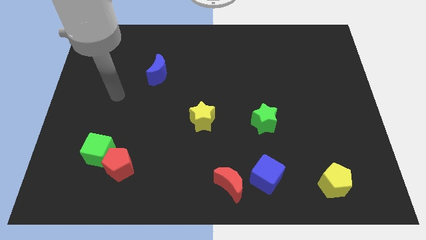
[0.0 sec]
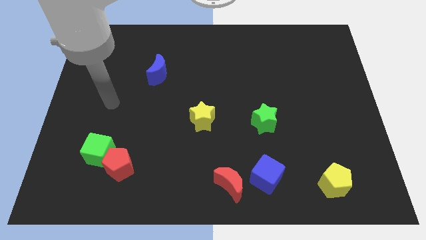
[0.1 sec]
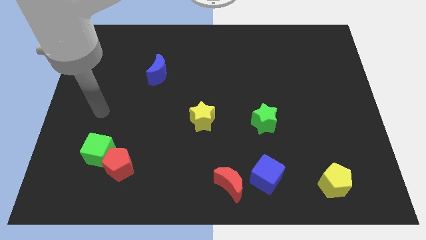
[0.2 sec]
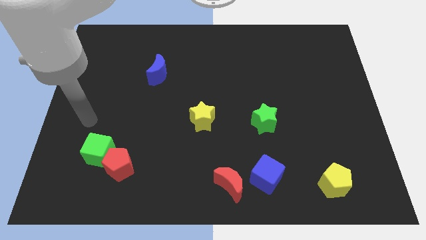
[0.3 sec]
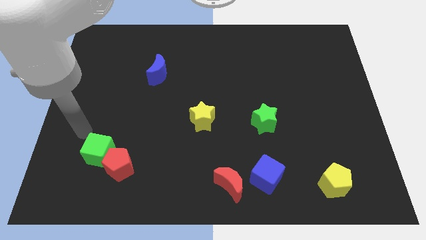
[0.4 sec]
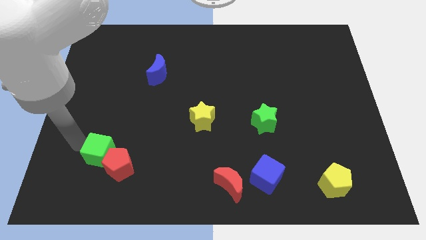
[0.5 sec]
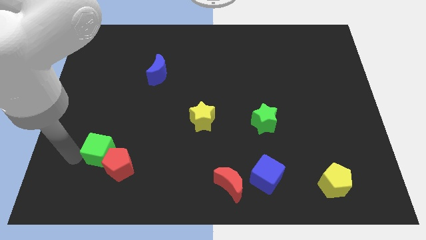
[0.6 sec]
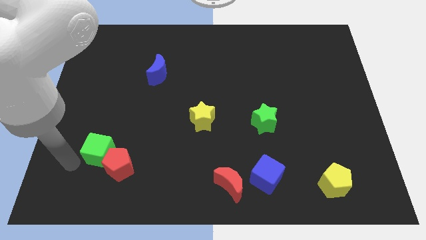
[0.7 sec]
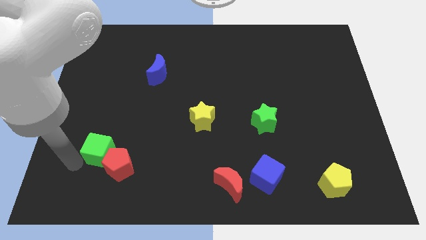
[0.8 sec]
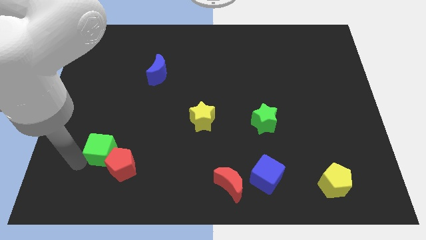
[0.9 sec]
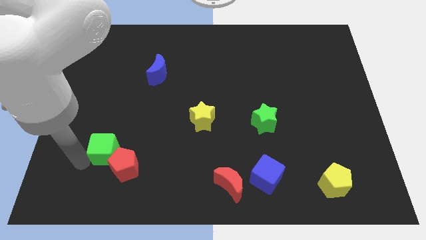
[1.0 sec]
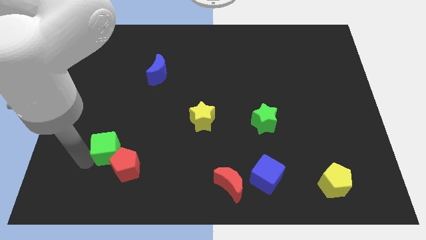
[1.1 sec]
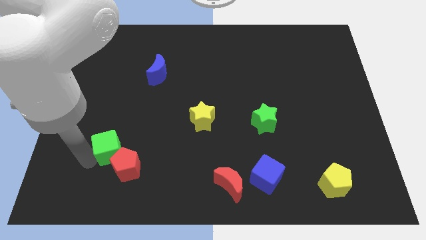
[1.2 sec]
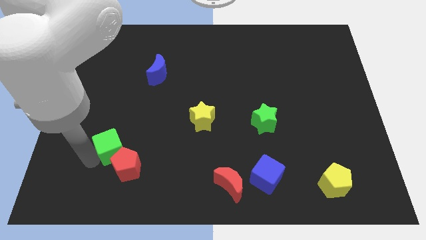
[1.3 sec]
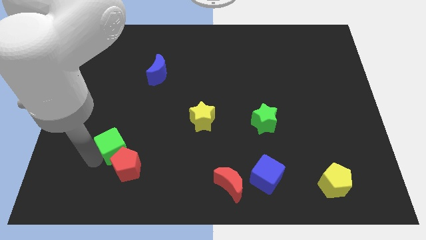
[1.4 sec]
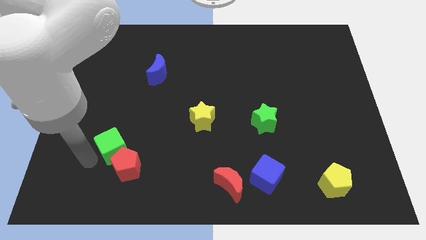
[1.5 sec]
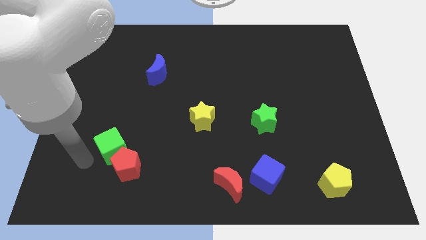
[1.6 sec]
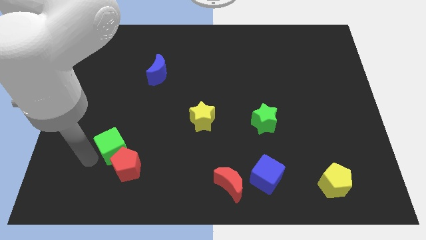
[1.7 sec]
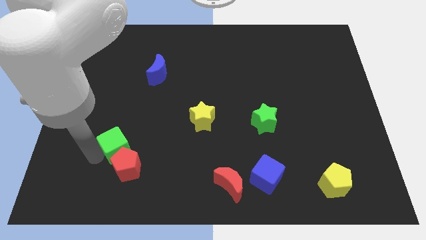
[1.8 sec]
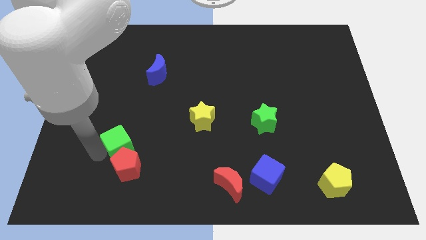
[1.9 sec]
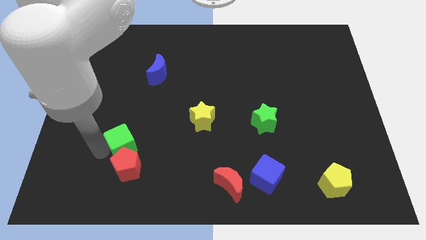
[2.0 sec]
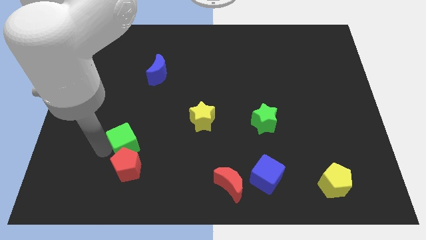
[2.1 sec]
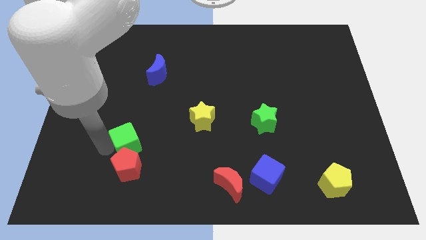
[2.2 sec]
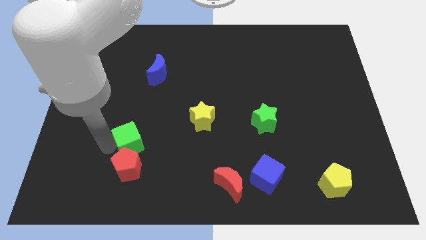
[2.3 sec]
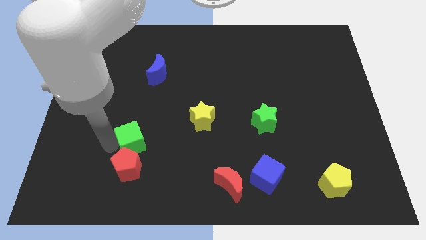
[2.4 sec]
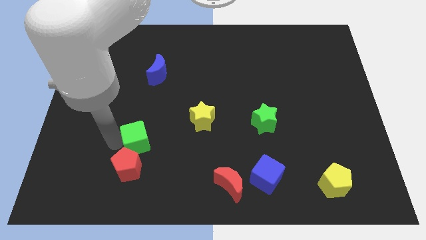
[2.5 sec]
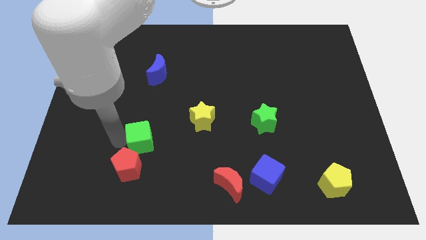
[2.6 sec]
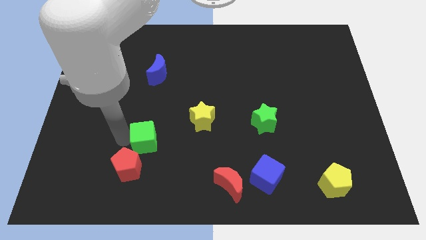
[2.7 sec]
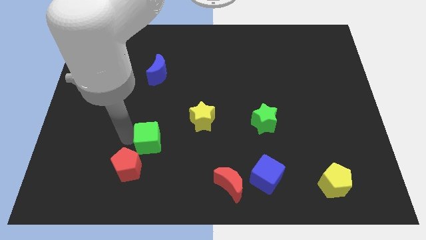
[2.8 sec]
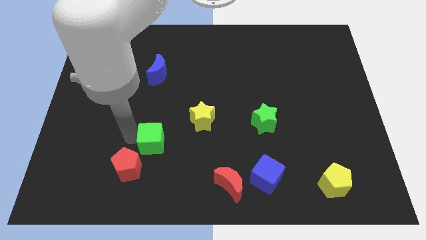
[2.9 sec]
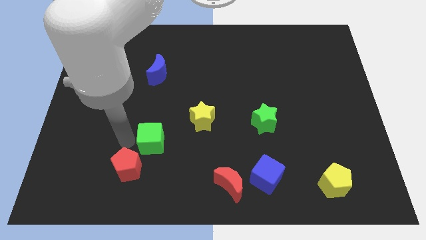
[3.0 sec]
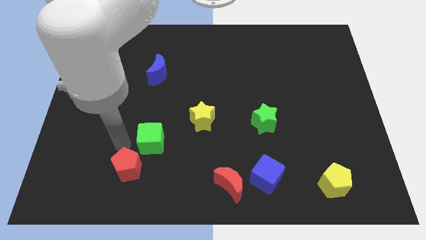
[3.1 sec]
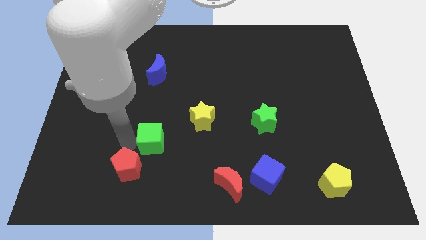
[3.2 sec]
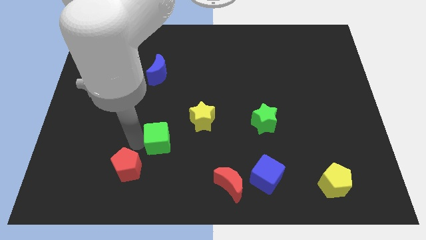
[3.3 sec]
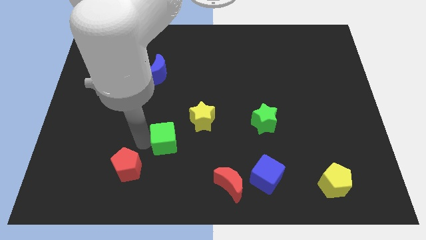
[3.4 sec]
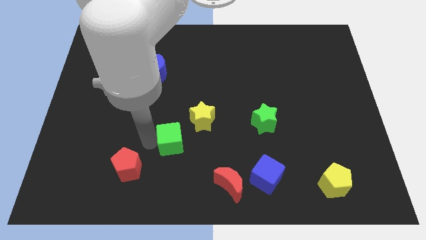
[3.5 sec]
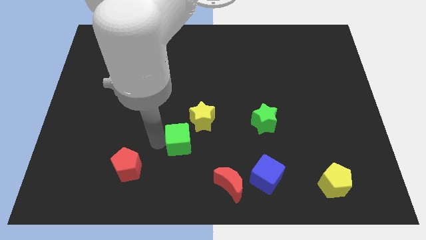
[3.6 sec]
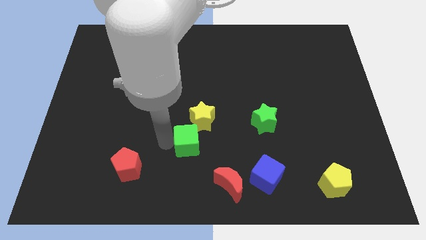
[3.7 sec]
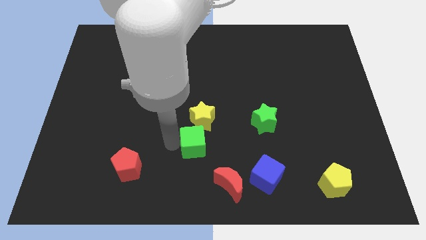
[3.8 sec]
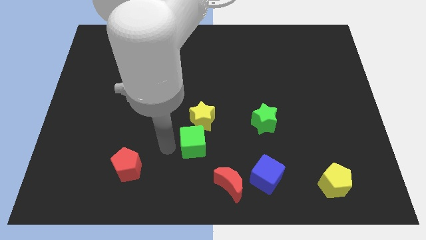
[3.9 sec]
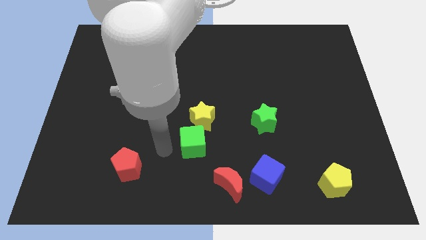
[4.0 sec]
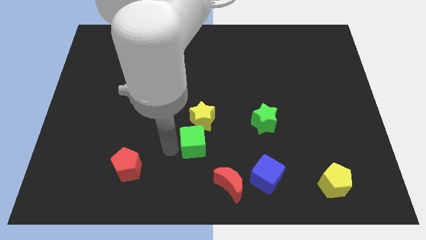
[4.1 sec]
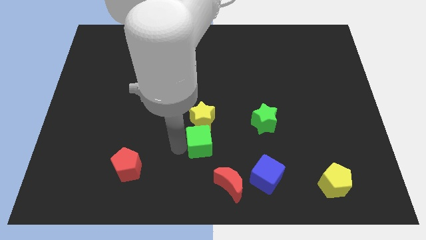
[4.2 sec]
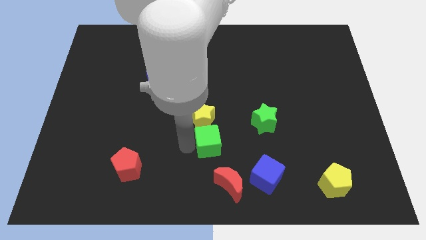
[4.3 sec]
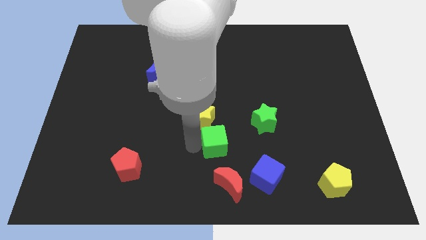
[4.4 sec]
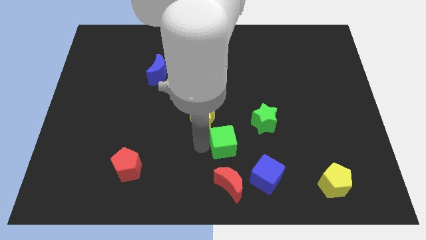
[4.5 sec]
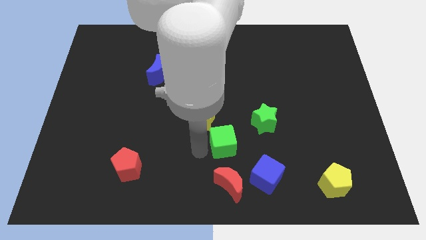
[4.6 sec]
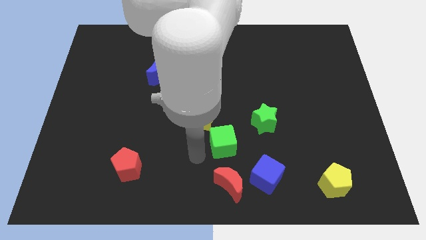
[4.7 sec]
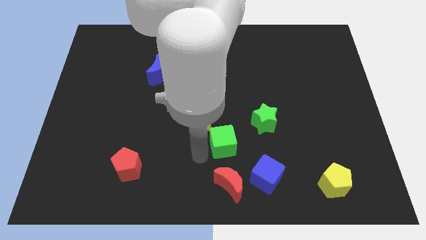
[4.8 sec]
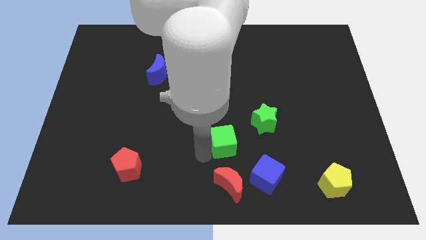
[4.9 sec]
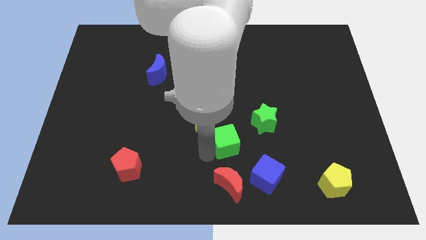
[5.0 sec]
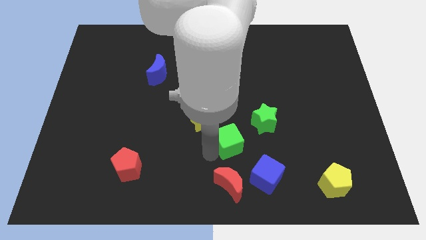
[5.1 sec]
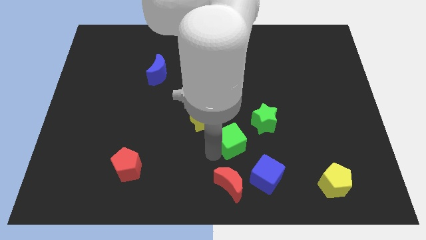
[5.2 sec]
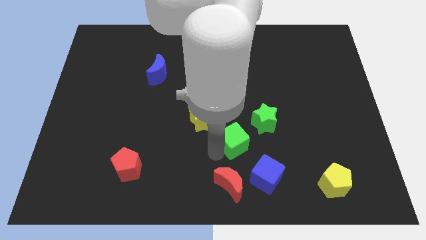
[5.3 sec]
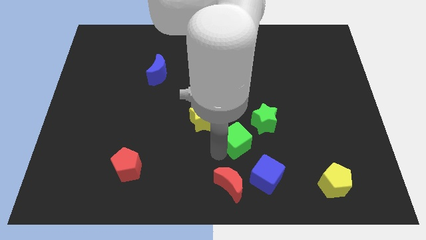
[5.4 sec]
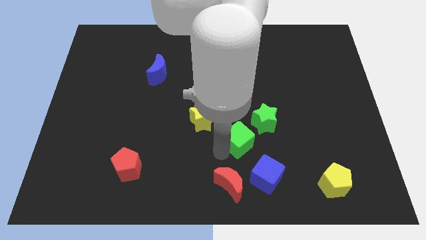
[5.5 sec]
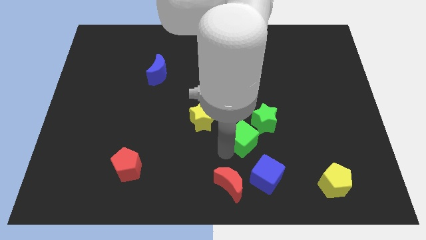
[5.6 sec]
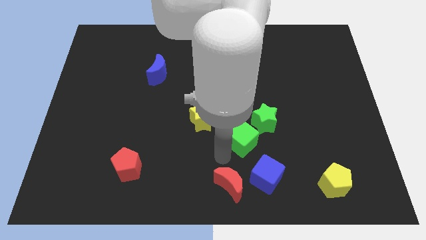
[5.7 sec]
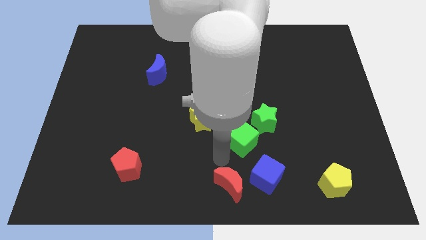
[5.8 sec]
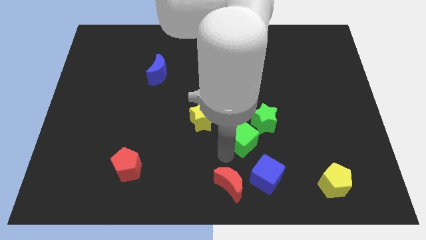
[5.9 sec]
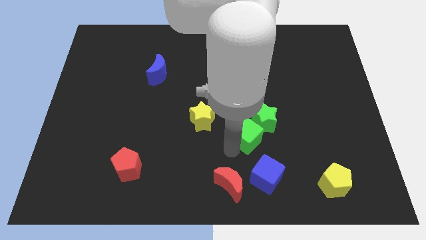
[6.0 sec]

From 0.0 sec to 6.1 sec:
push the green cube to the green star

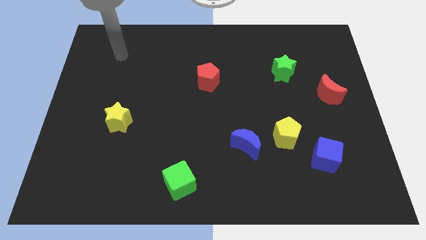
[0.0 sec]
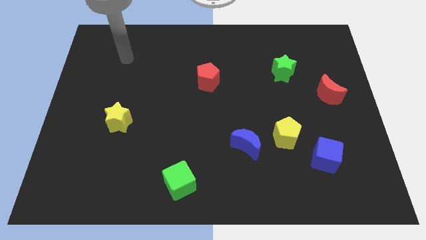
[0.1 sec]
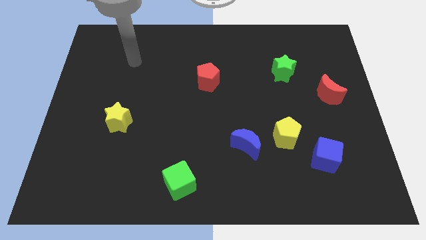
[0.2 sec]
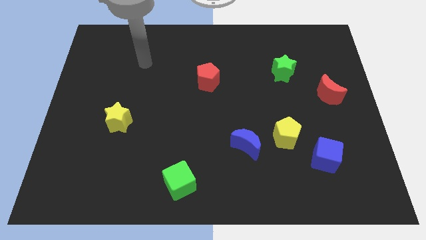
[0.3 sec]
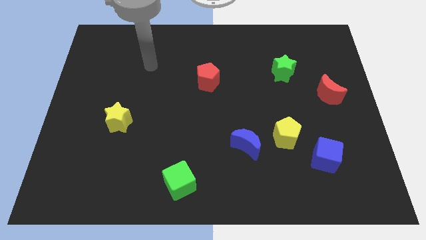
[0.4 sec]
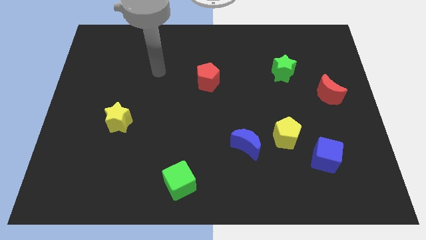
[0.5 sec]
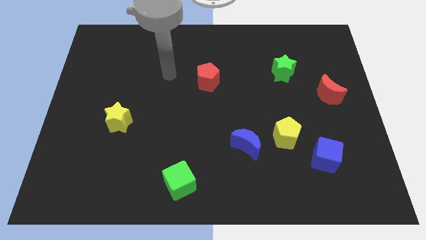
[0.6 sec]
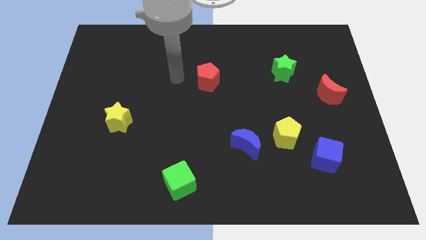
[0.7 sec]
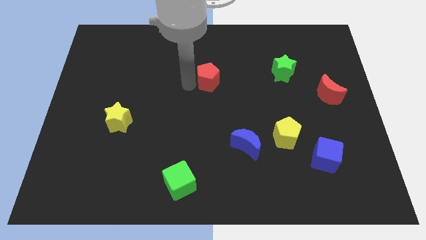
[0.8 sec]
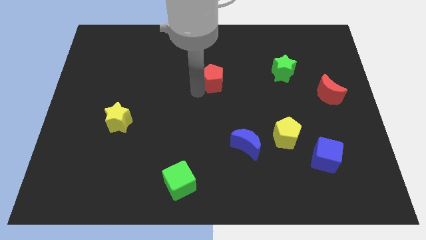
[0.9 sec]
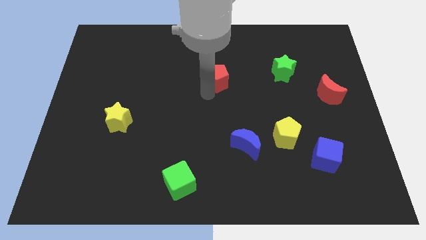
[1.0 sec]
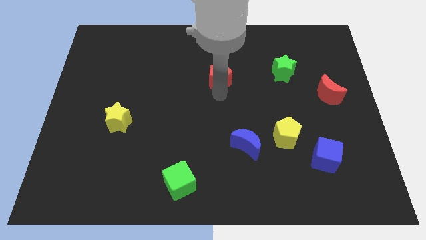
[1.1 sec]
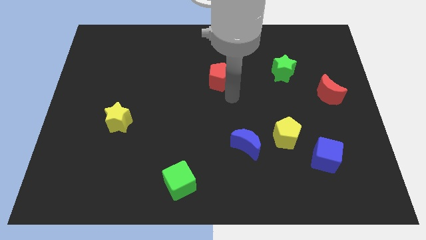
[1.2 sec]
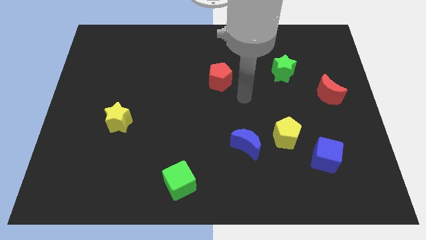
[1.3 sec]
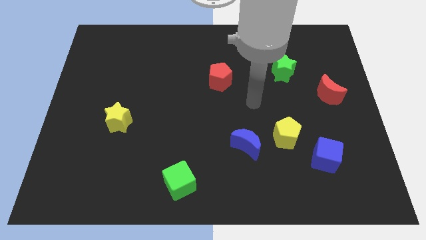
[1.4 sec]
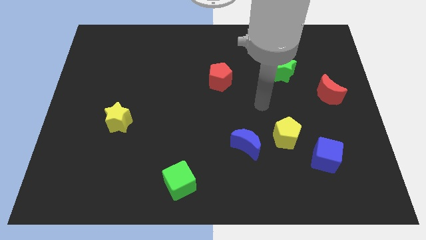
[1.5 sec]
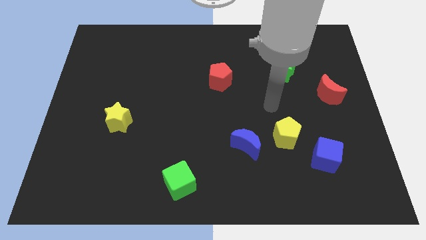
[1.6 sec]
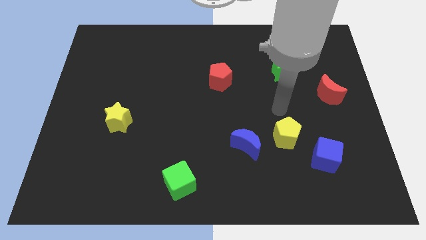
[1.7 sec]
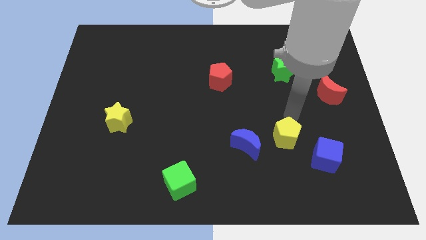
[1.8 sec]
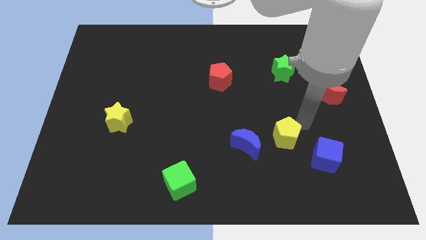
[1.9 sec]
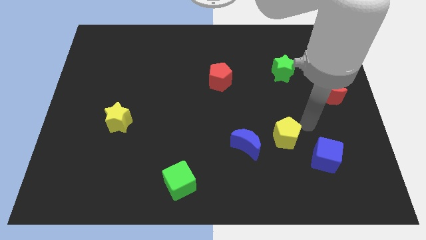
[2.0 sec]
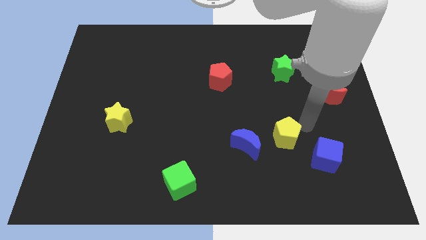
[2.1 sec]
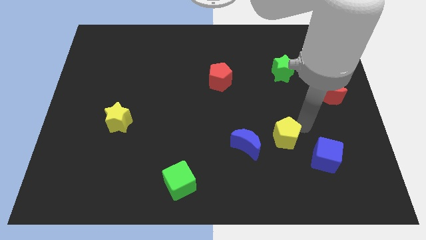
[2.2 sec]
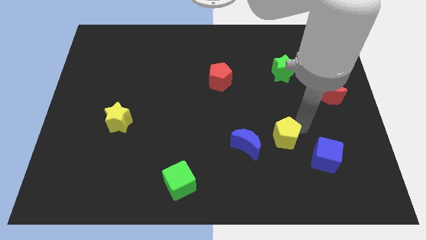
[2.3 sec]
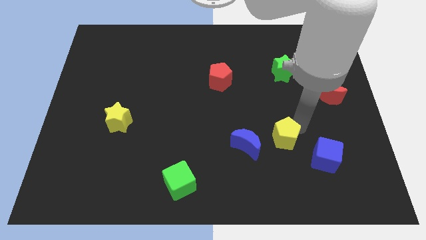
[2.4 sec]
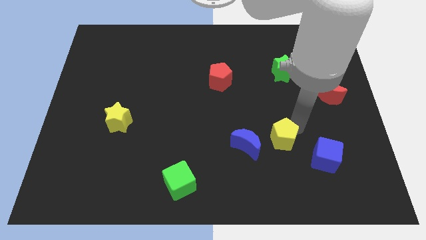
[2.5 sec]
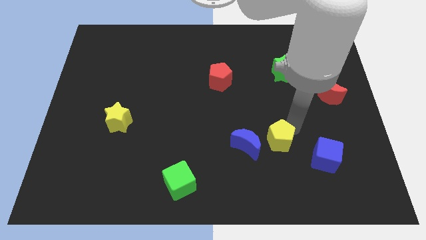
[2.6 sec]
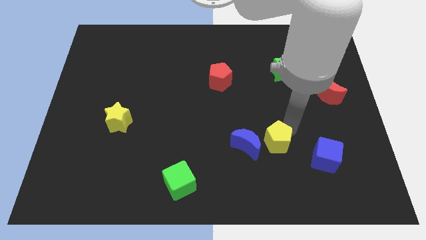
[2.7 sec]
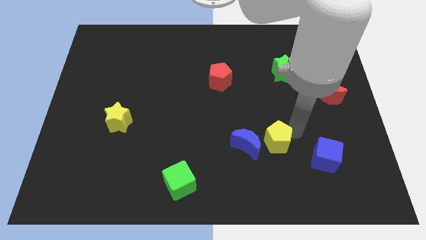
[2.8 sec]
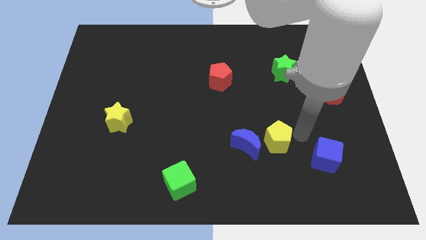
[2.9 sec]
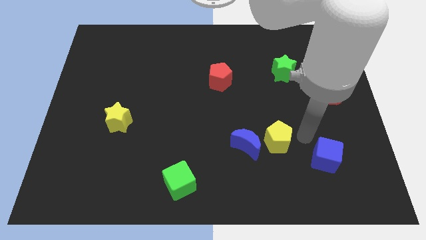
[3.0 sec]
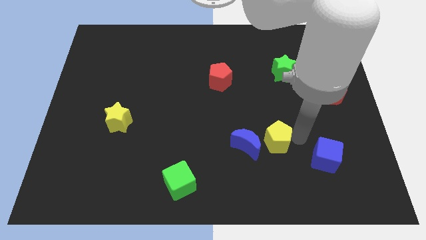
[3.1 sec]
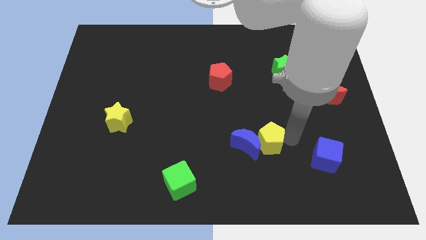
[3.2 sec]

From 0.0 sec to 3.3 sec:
put the yellow pentagon towards the blue moon
